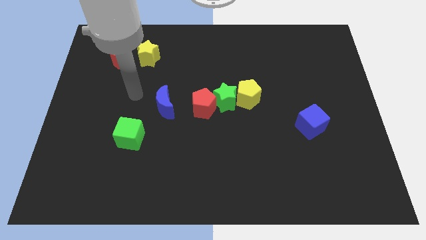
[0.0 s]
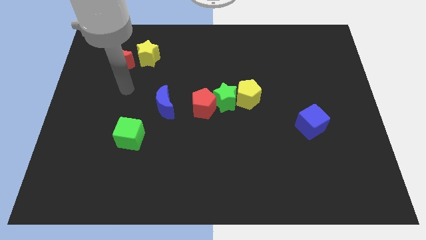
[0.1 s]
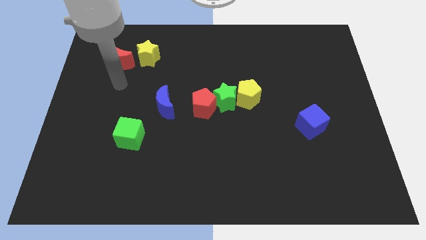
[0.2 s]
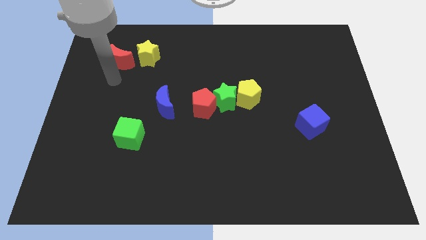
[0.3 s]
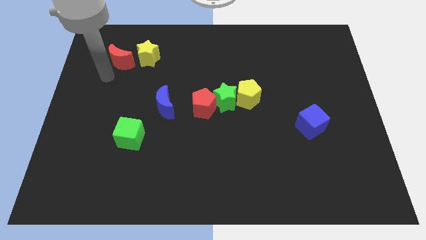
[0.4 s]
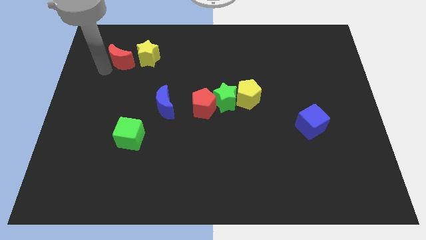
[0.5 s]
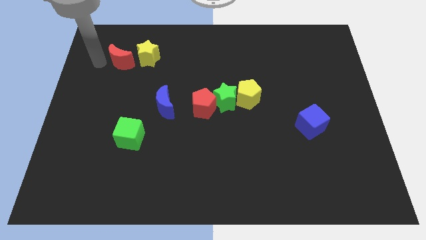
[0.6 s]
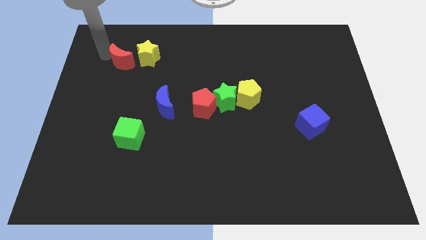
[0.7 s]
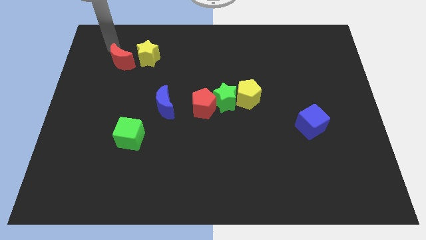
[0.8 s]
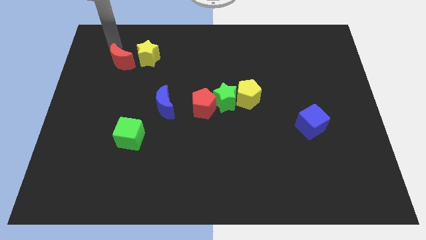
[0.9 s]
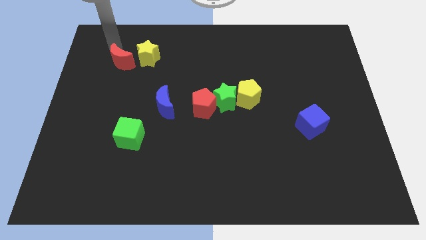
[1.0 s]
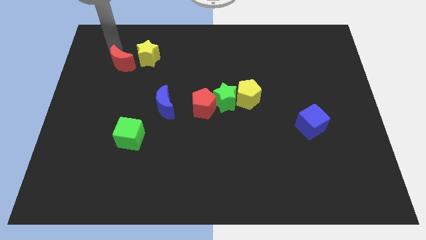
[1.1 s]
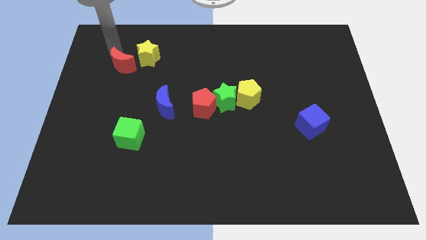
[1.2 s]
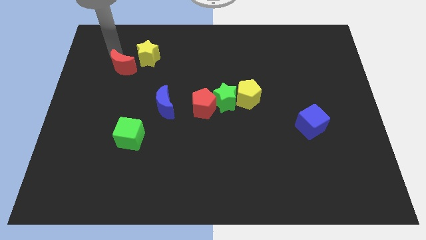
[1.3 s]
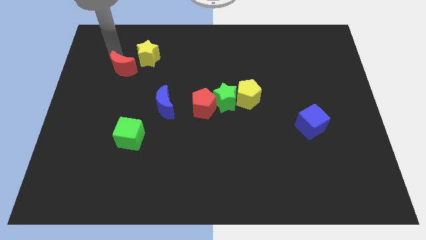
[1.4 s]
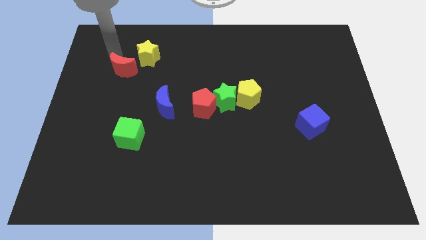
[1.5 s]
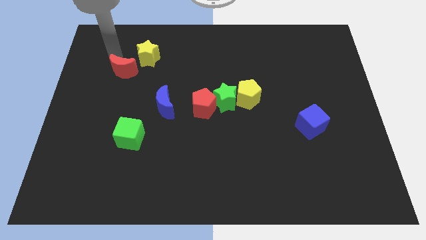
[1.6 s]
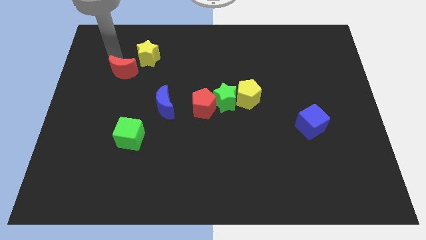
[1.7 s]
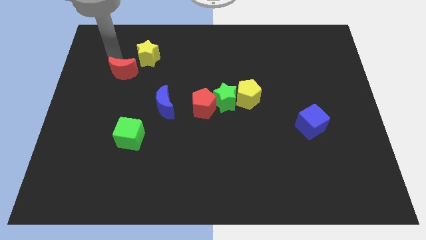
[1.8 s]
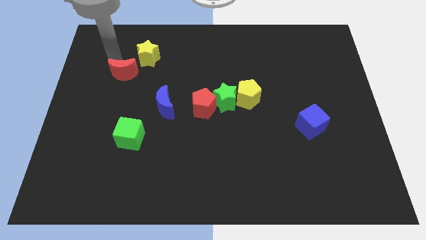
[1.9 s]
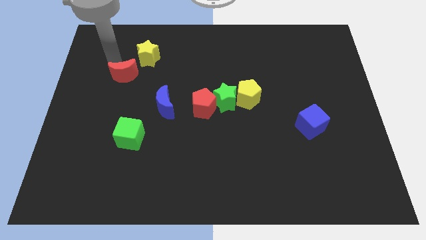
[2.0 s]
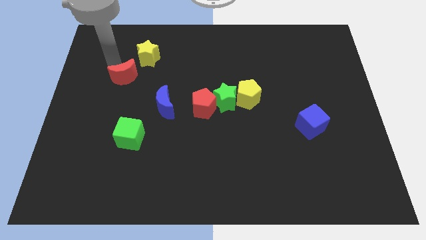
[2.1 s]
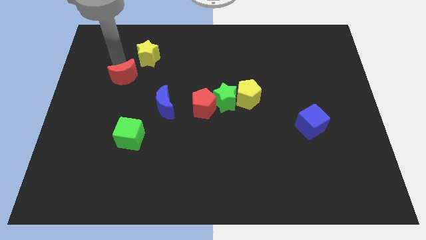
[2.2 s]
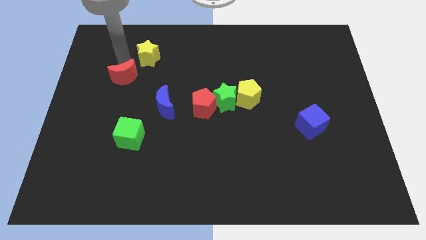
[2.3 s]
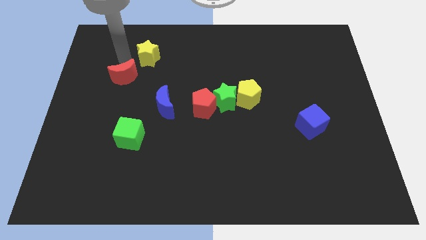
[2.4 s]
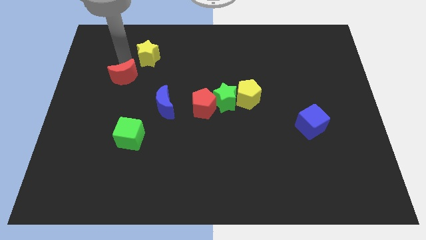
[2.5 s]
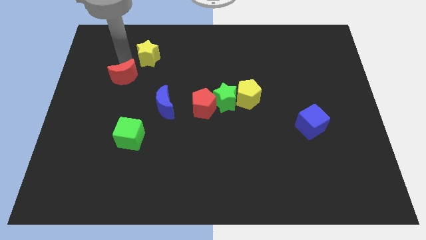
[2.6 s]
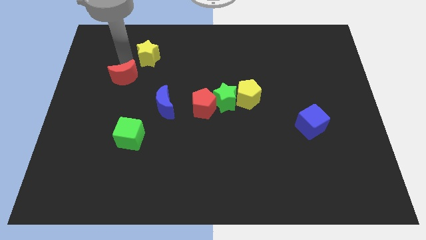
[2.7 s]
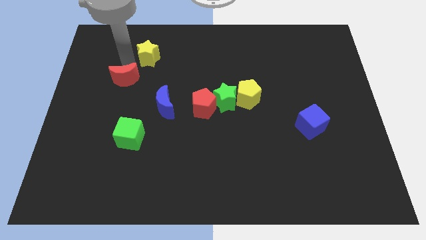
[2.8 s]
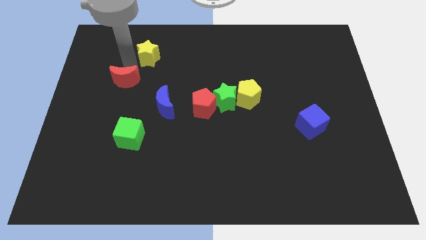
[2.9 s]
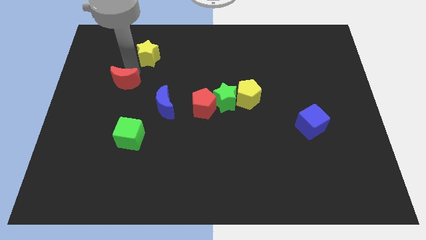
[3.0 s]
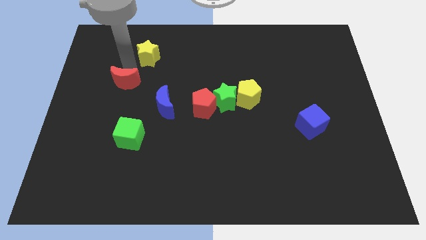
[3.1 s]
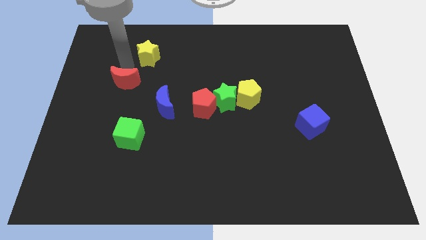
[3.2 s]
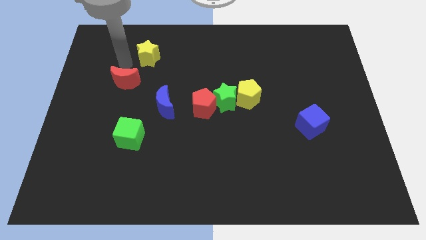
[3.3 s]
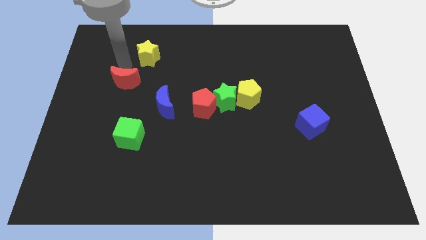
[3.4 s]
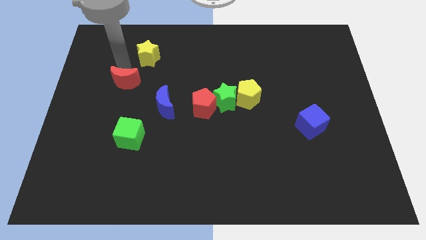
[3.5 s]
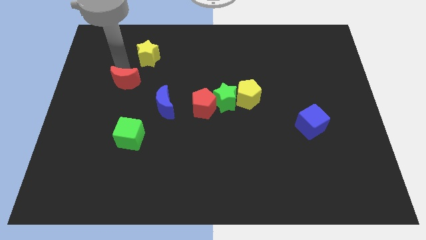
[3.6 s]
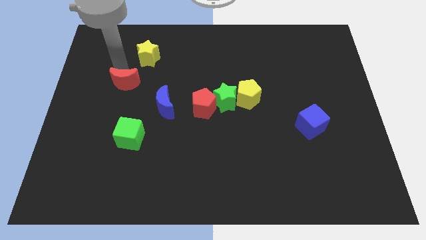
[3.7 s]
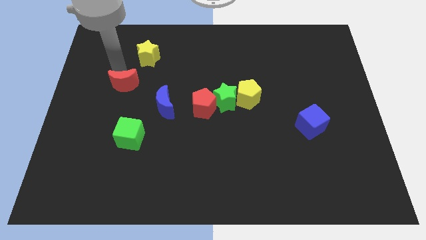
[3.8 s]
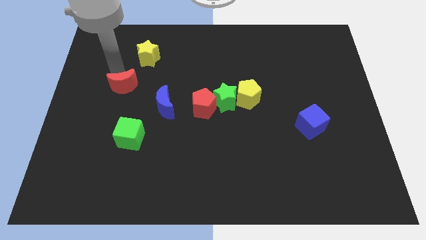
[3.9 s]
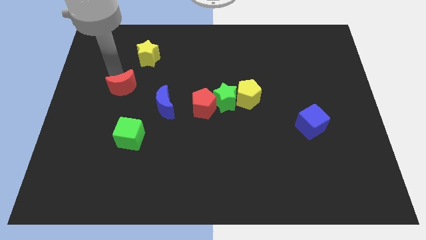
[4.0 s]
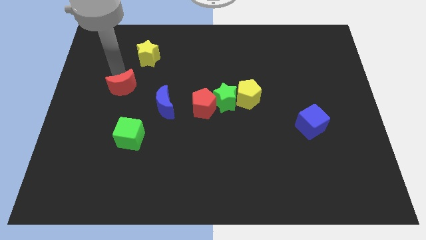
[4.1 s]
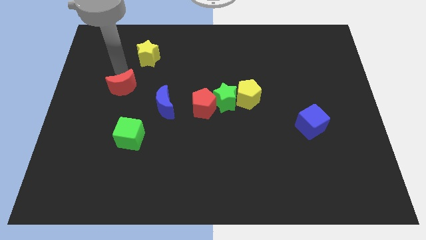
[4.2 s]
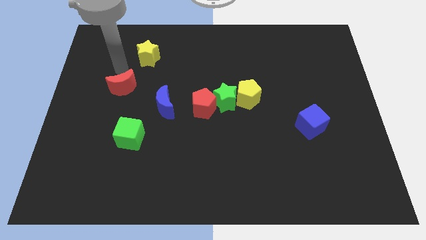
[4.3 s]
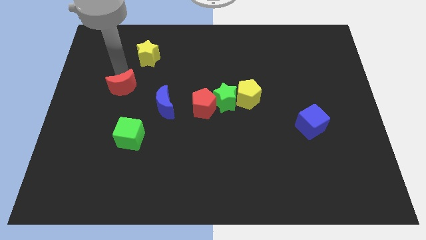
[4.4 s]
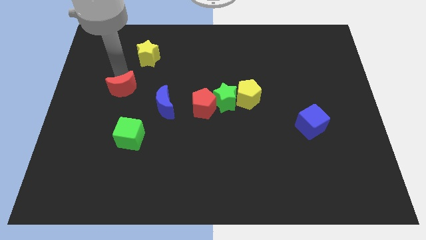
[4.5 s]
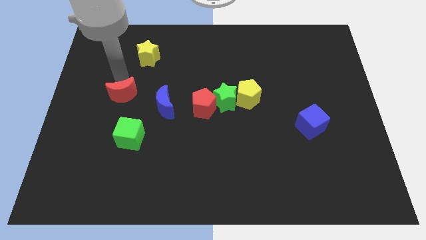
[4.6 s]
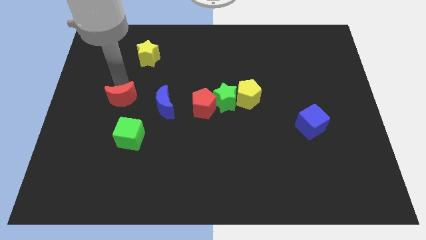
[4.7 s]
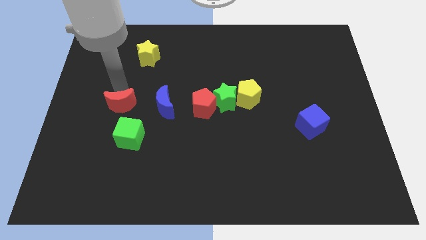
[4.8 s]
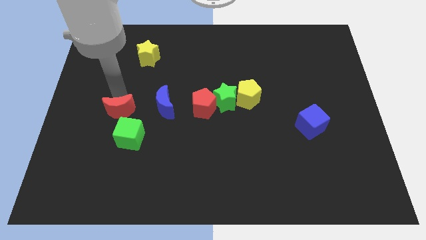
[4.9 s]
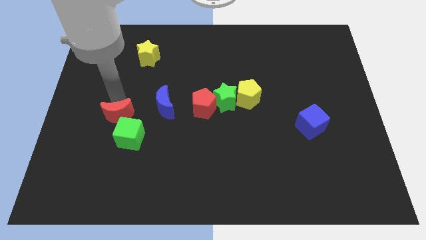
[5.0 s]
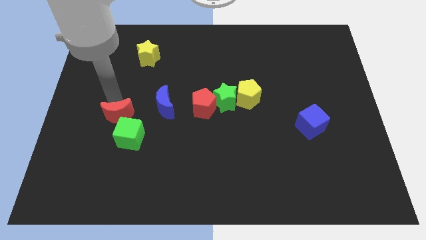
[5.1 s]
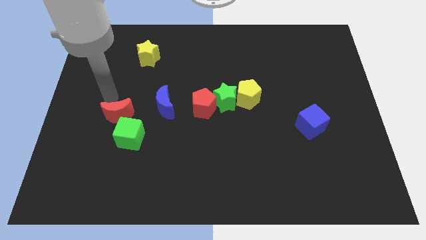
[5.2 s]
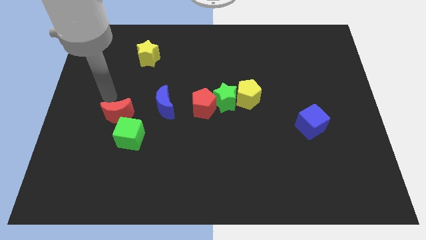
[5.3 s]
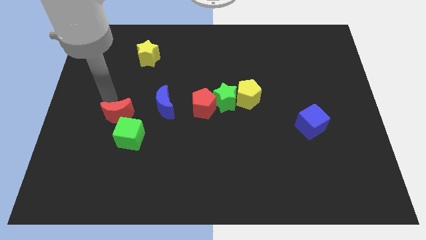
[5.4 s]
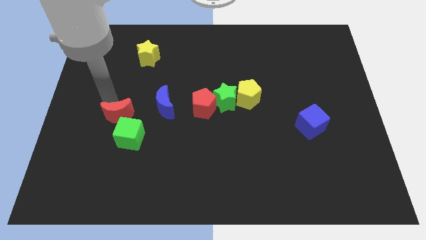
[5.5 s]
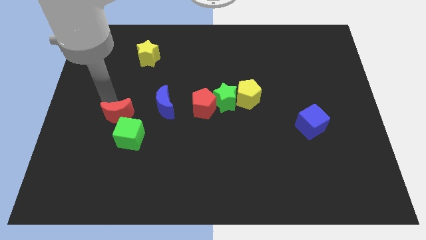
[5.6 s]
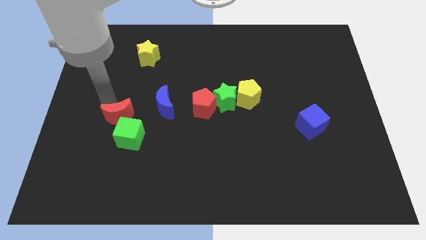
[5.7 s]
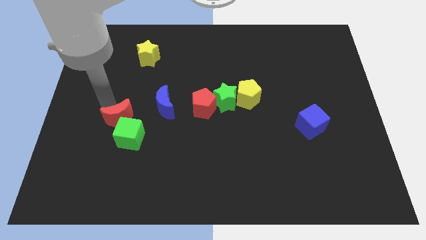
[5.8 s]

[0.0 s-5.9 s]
move the red moon to the green cube
